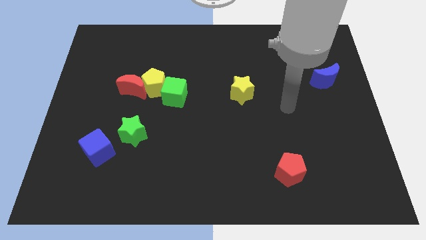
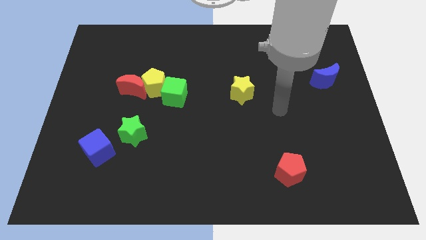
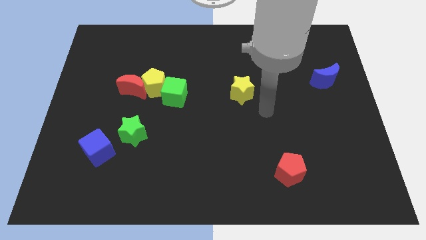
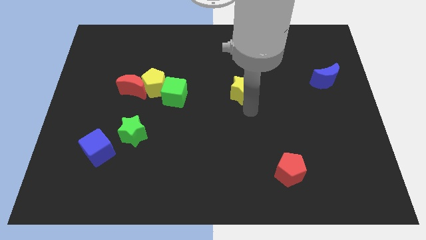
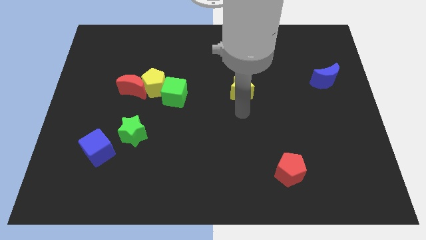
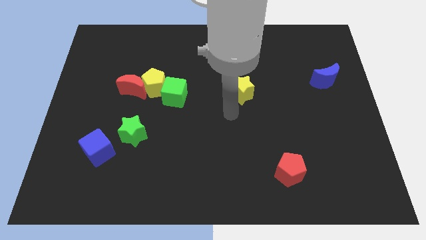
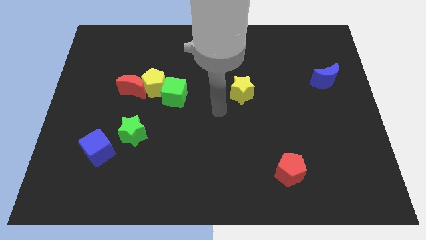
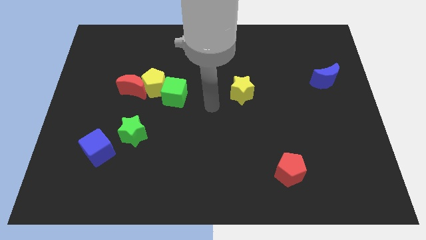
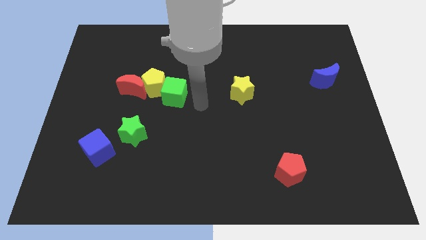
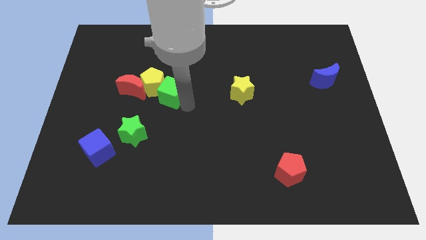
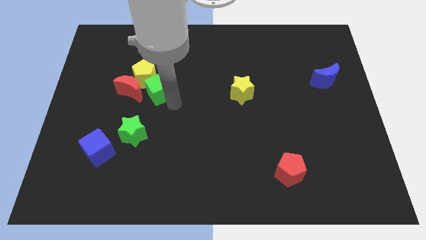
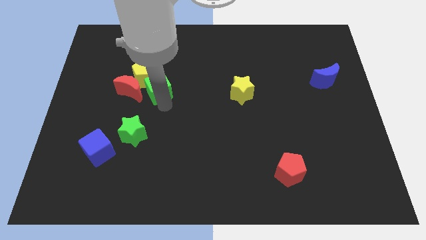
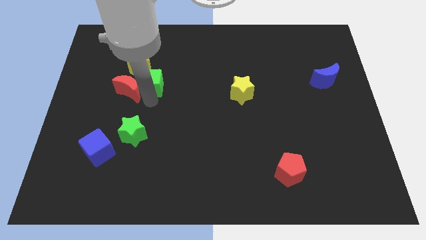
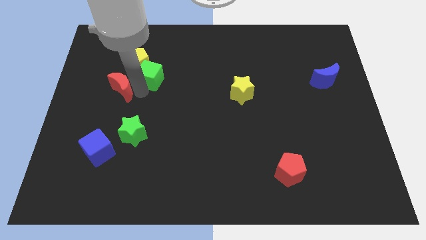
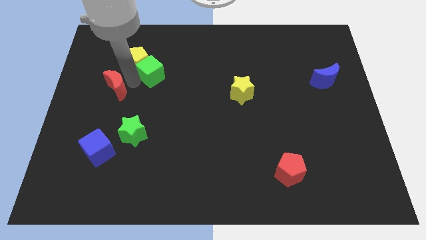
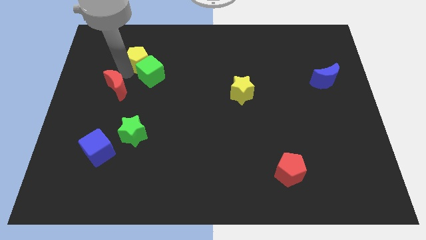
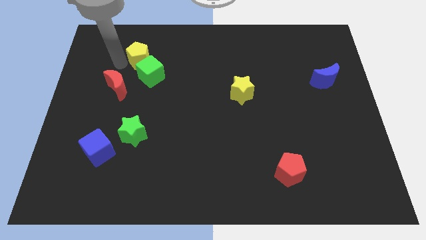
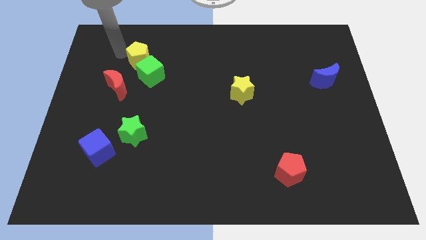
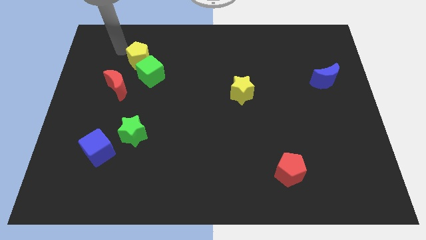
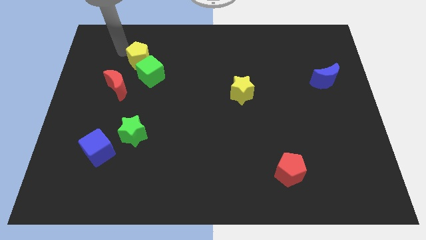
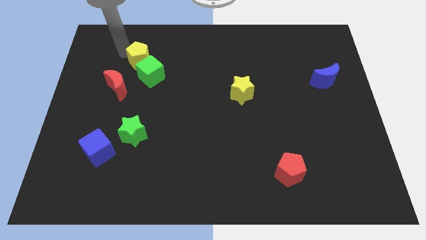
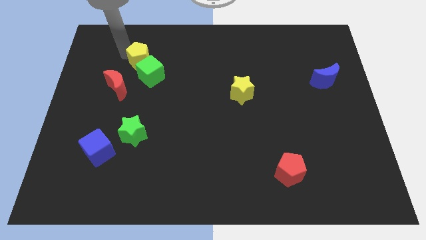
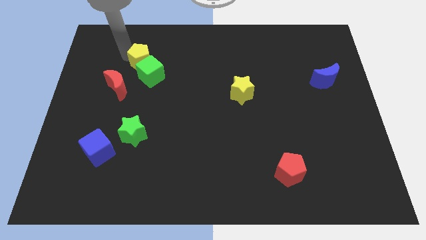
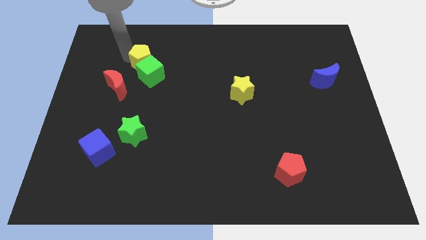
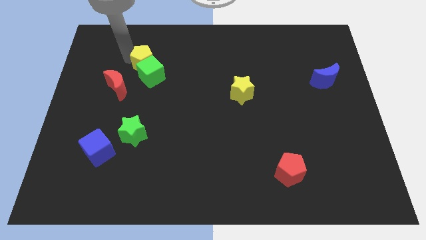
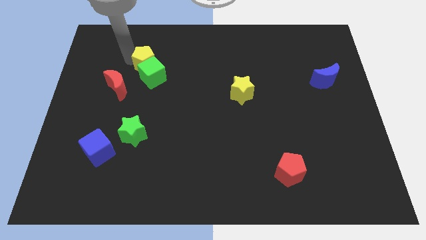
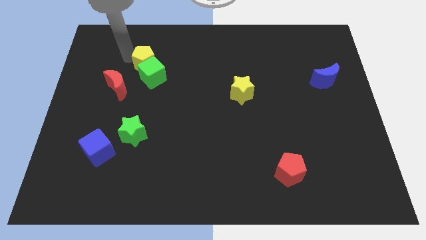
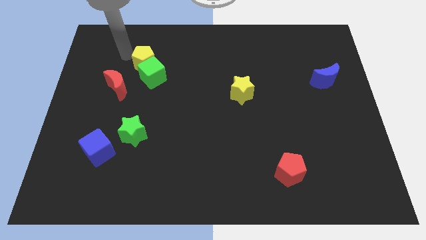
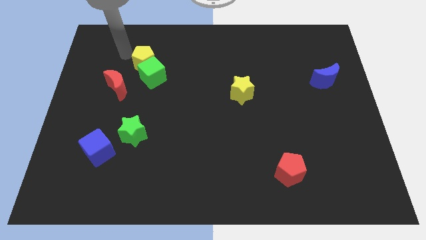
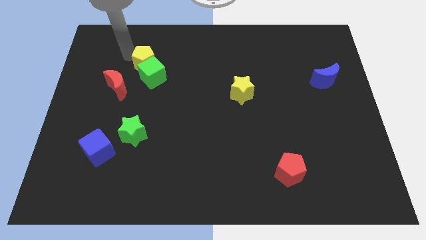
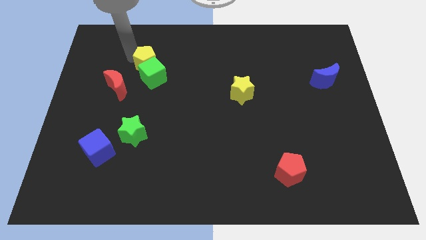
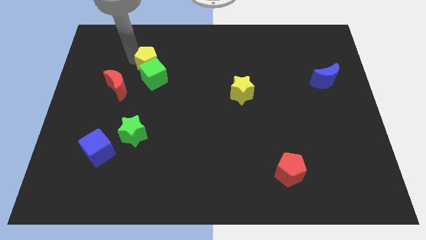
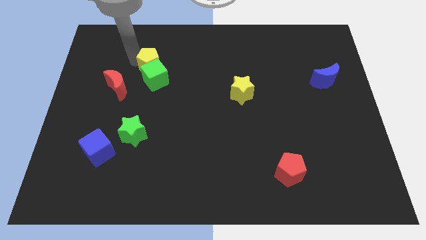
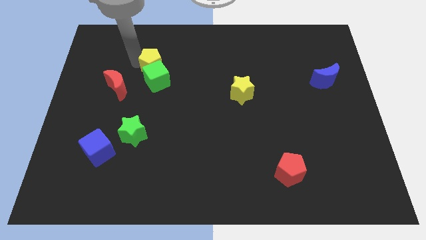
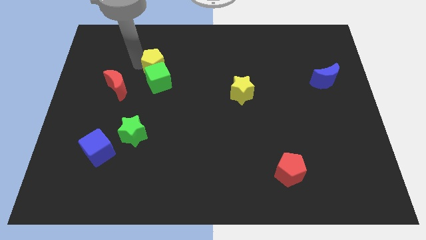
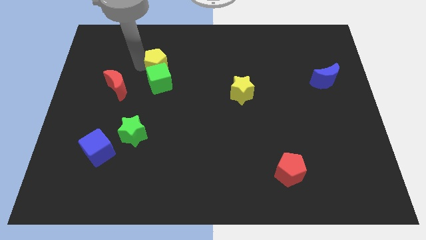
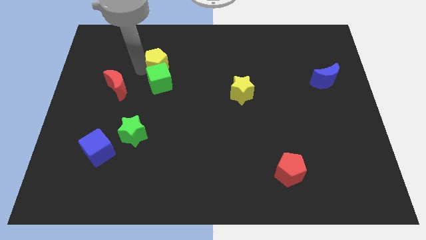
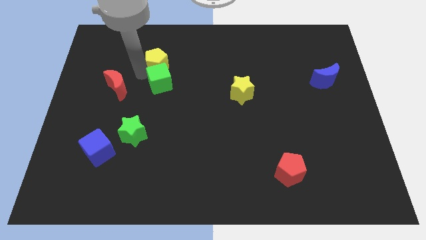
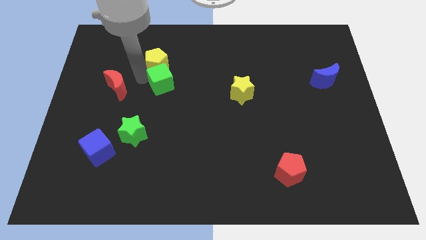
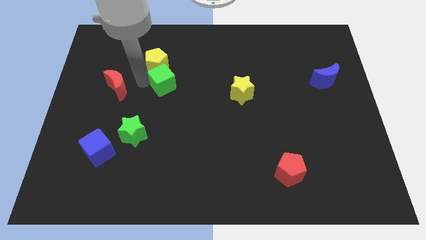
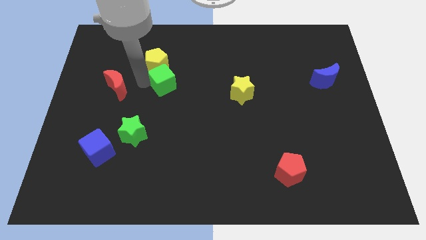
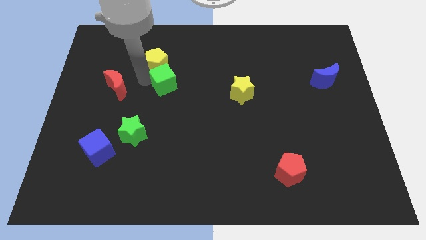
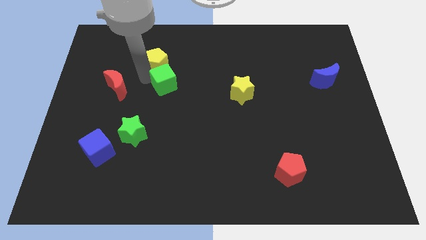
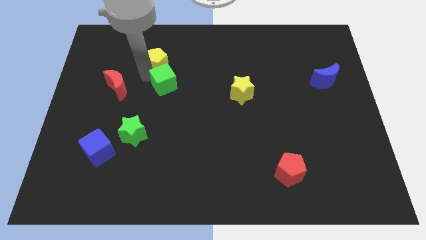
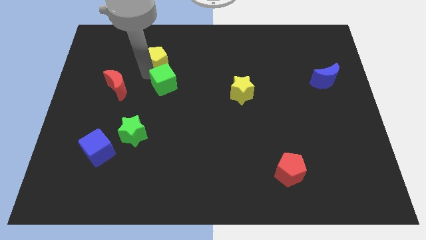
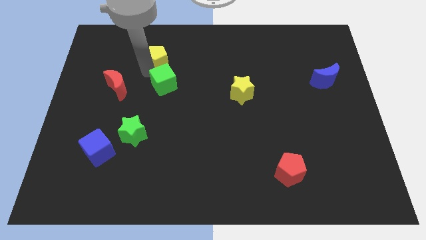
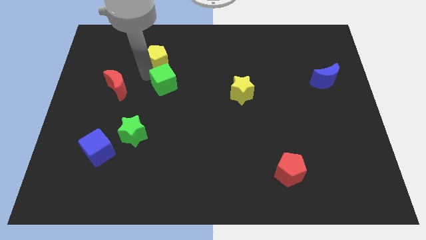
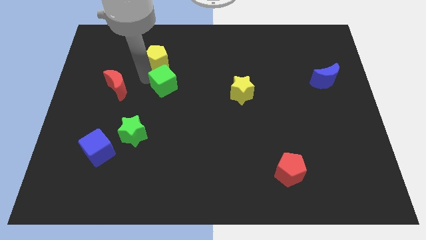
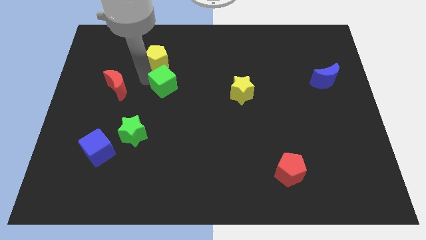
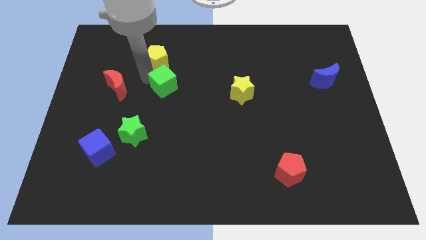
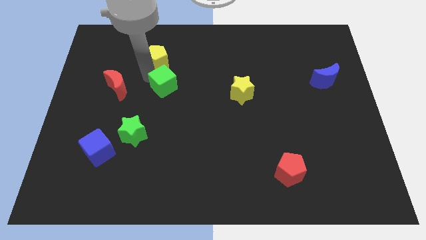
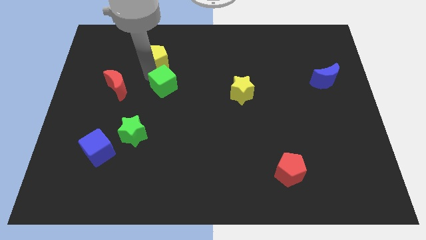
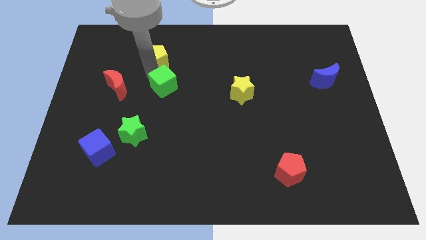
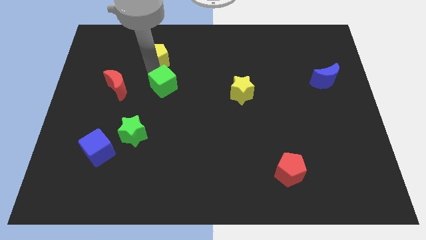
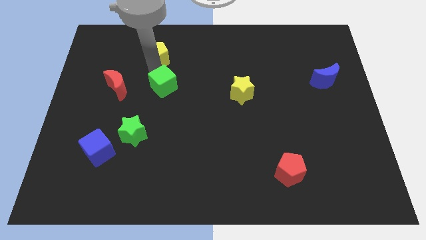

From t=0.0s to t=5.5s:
pull the yellow pentagon apart from the red moon and green cube

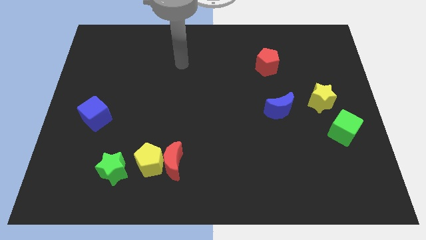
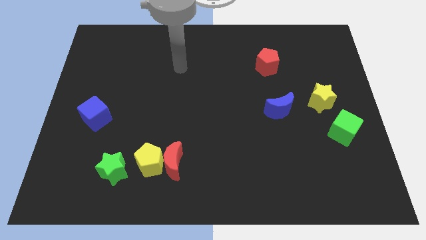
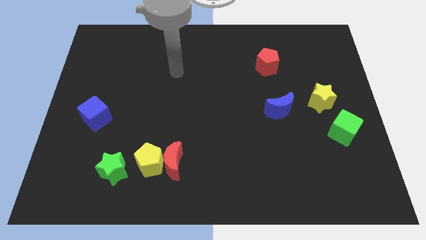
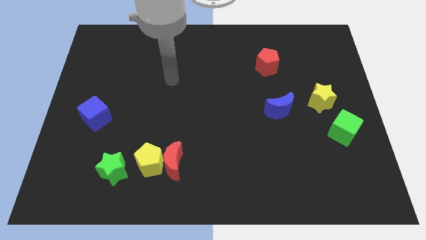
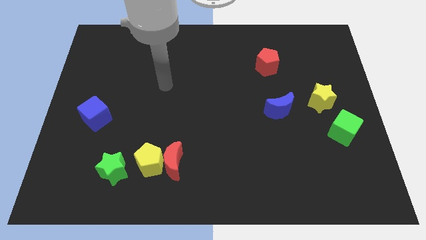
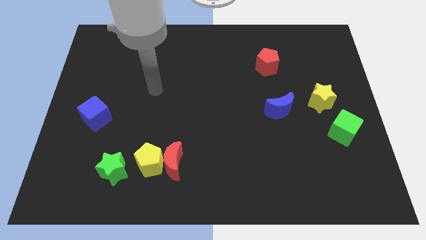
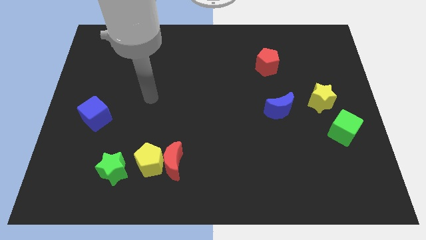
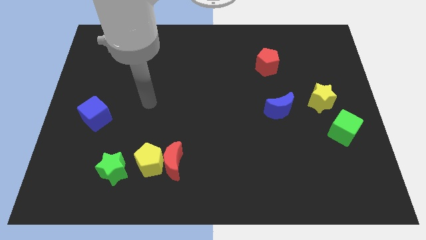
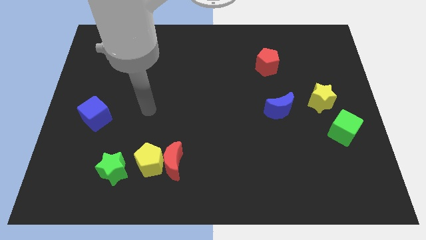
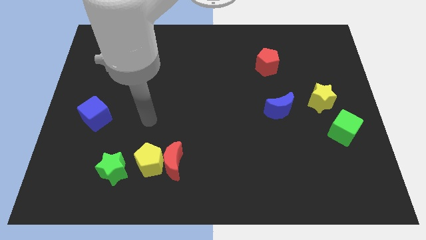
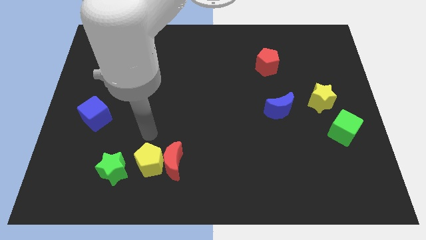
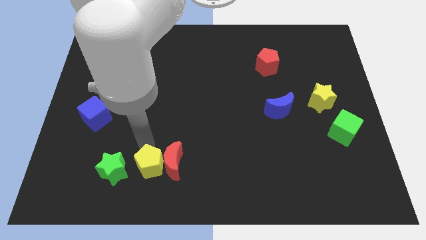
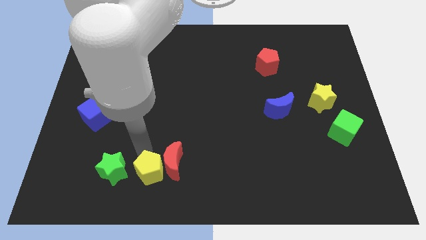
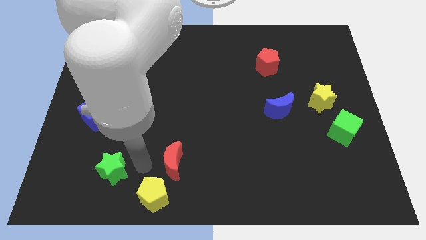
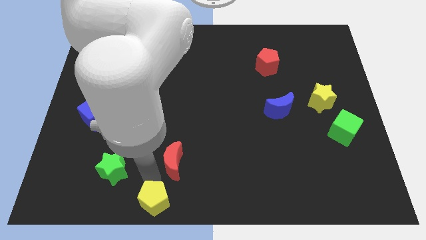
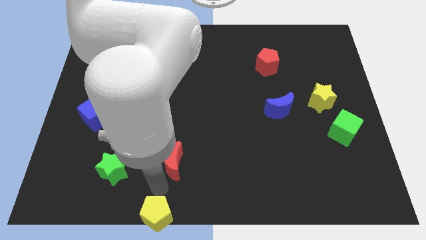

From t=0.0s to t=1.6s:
separate the red moon from the yellow pentagon

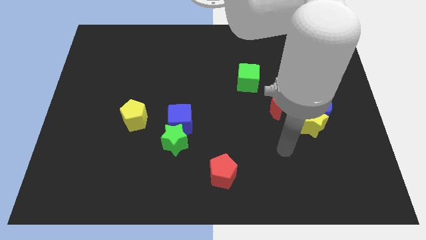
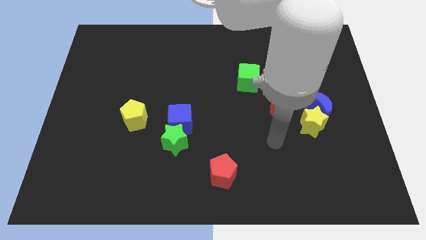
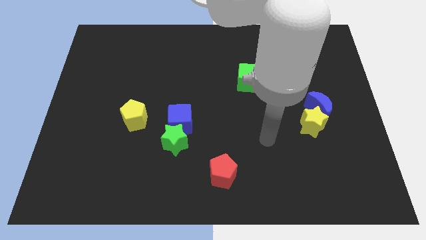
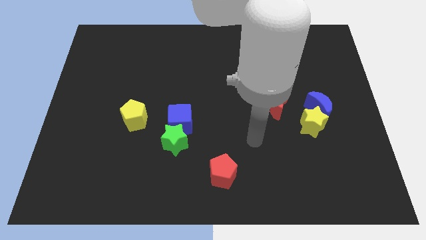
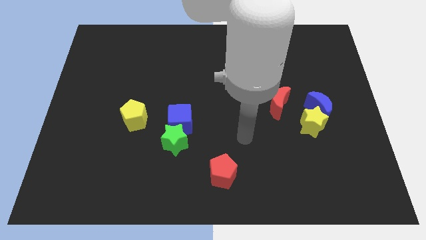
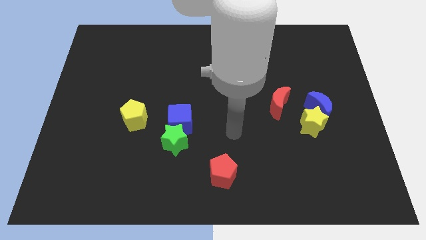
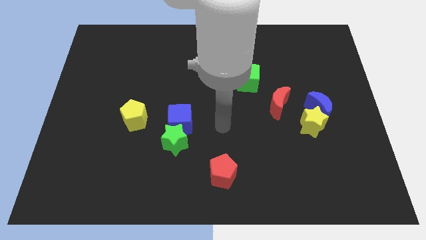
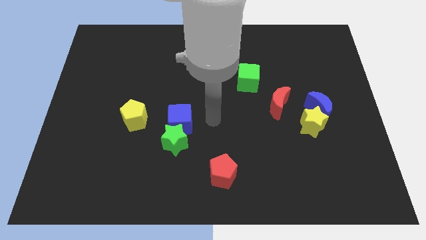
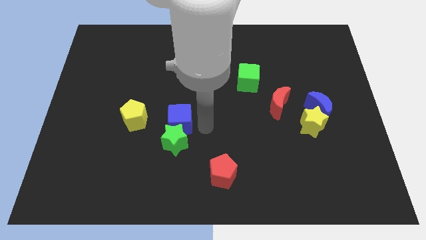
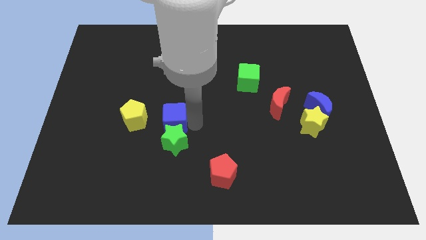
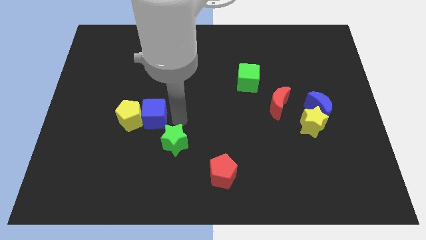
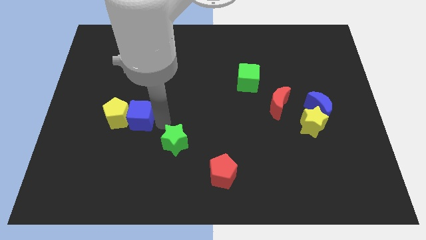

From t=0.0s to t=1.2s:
separate the green star from the blue cube

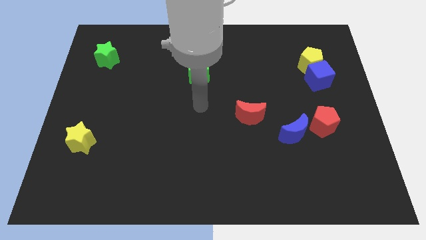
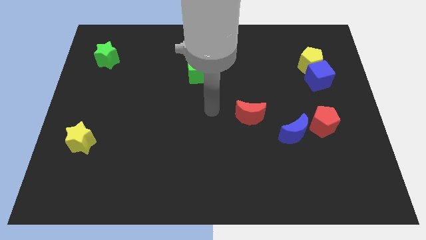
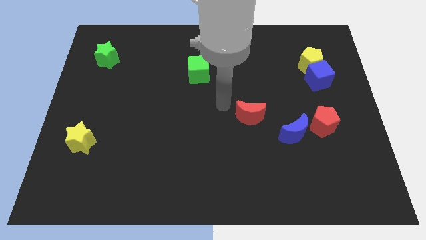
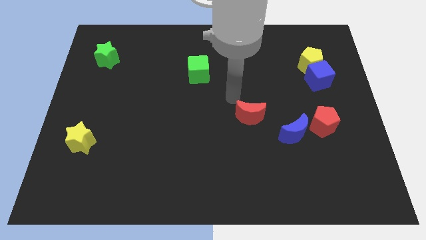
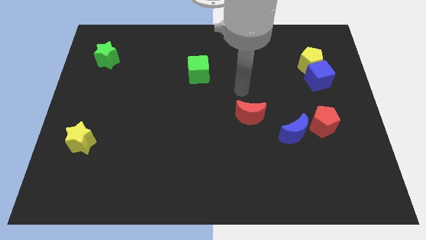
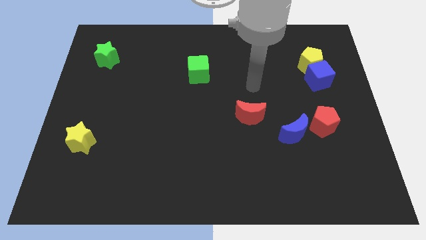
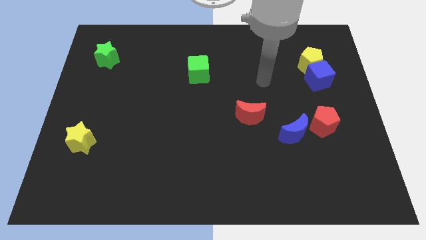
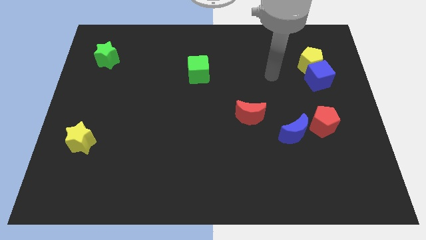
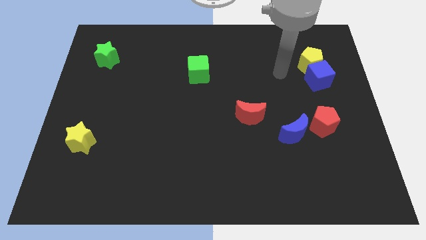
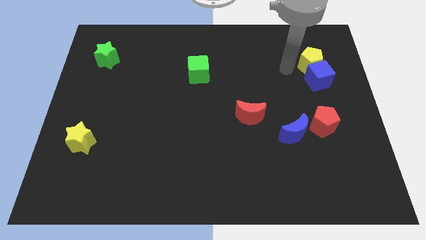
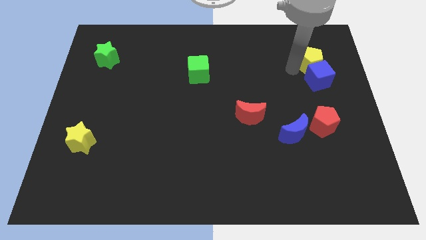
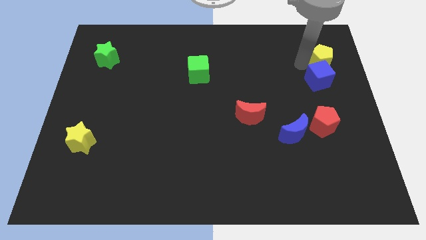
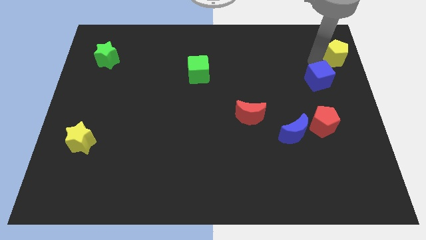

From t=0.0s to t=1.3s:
move the blue cube away from the yellow pentagon
